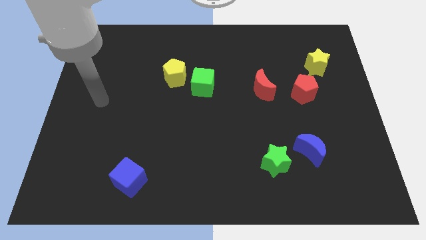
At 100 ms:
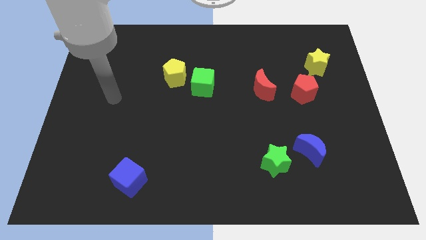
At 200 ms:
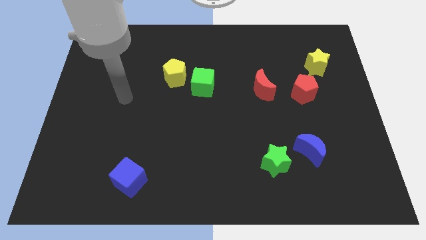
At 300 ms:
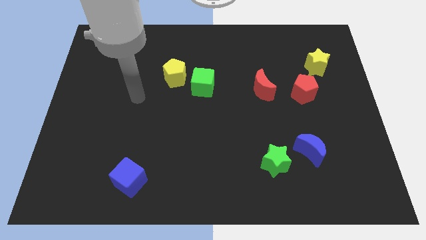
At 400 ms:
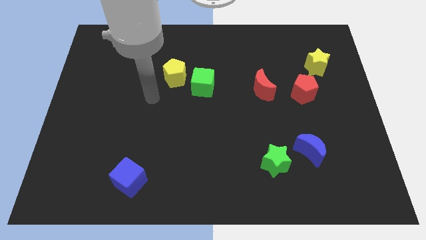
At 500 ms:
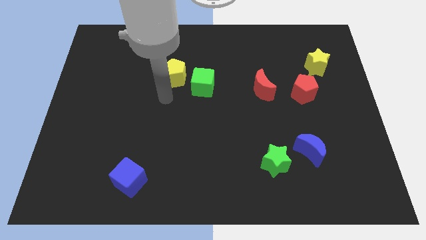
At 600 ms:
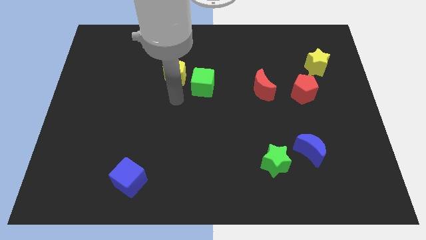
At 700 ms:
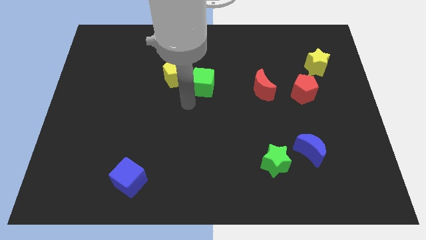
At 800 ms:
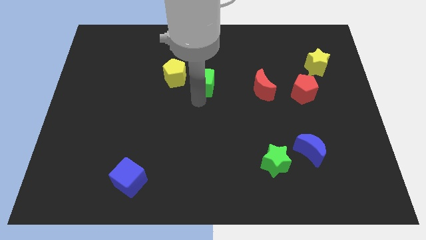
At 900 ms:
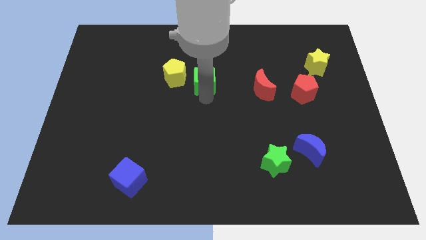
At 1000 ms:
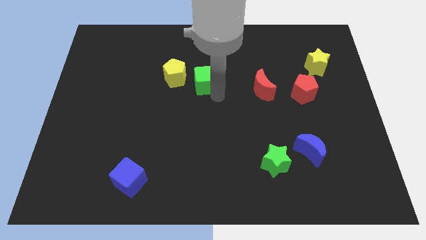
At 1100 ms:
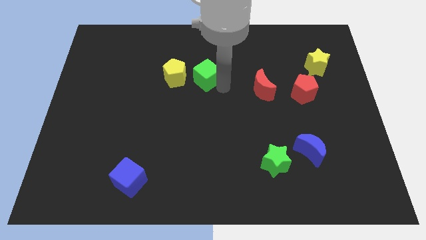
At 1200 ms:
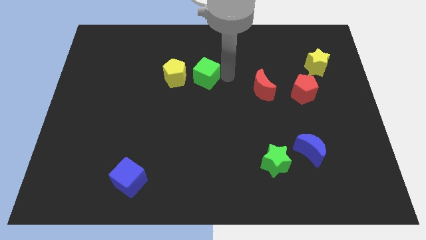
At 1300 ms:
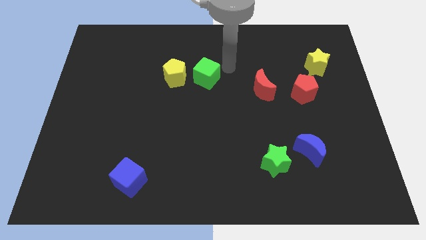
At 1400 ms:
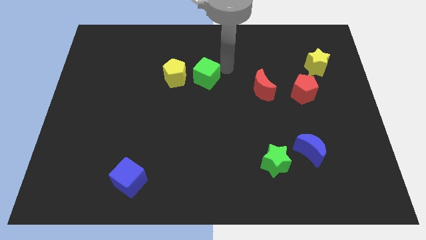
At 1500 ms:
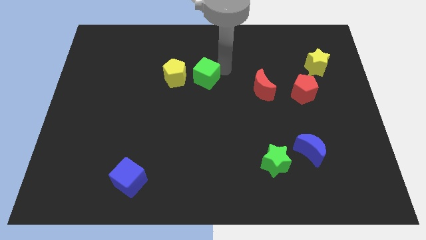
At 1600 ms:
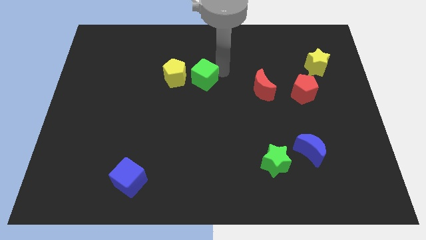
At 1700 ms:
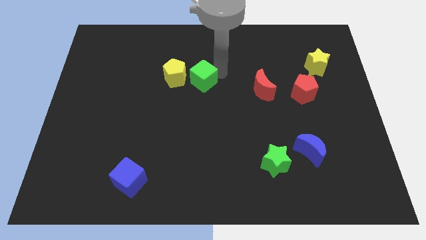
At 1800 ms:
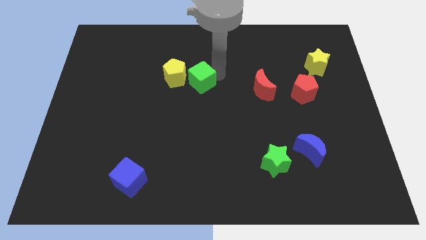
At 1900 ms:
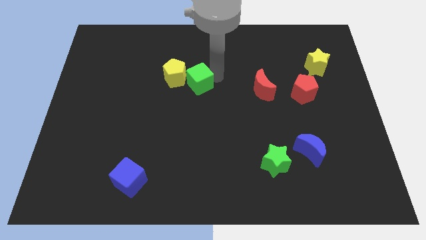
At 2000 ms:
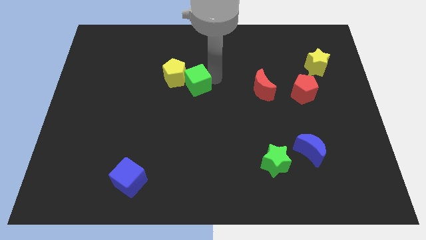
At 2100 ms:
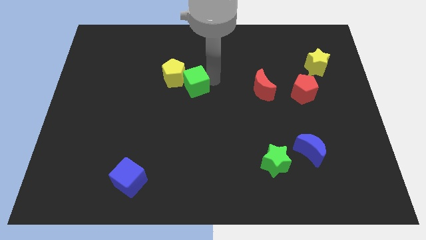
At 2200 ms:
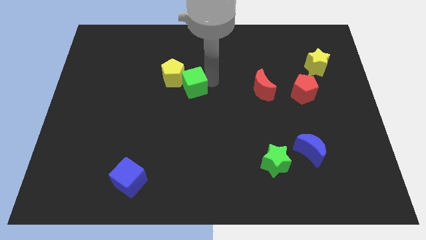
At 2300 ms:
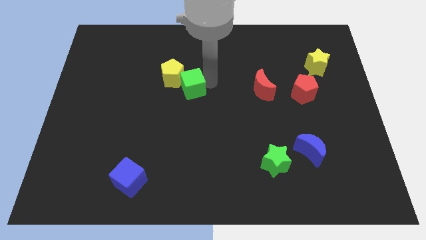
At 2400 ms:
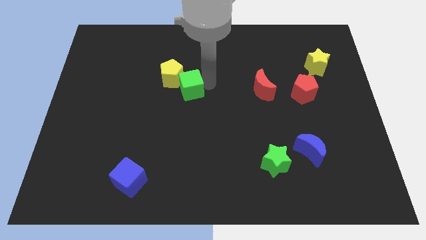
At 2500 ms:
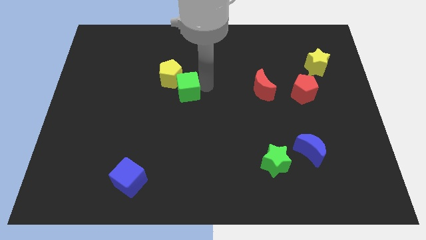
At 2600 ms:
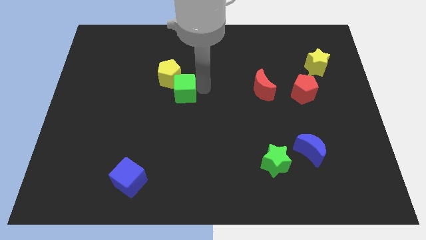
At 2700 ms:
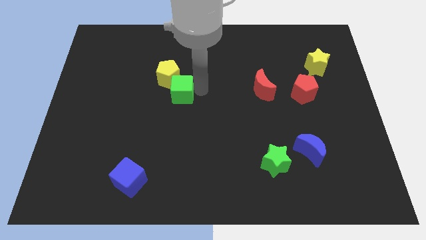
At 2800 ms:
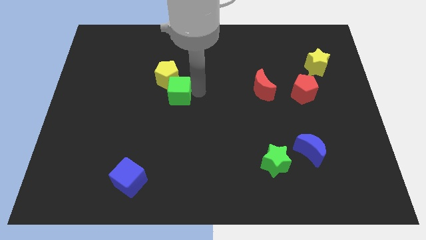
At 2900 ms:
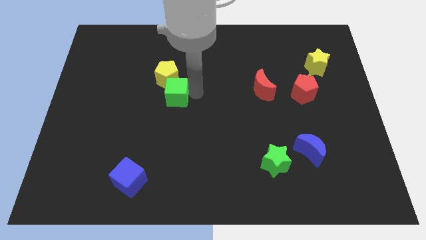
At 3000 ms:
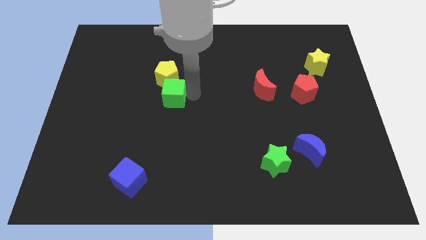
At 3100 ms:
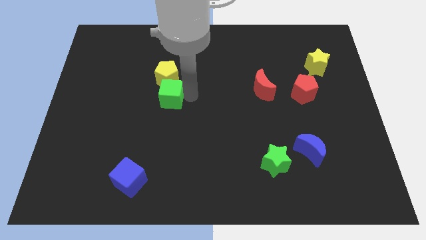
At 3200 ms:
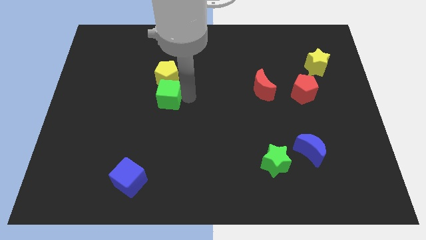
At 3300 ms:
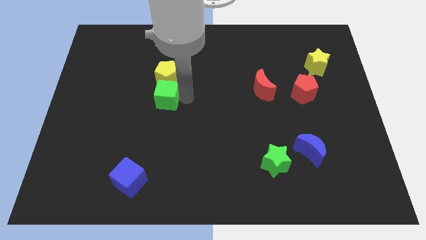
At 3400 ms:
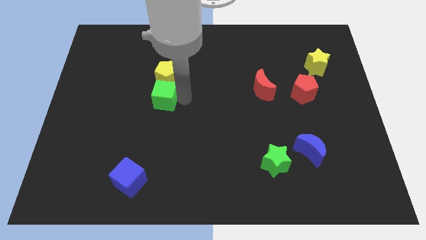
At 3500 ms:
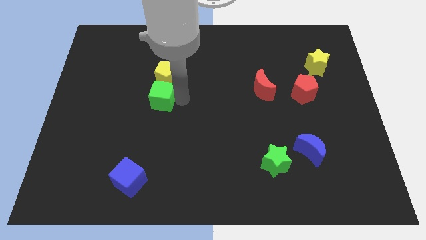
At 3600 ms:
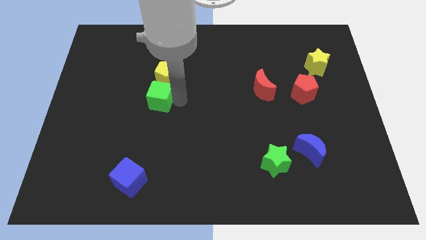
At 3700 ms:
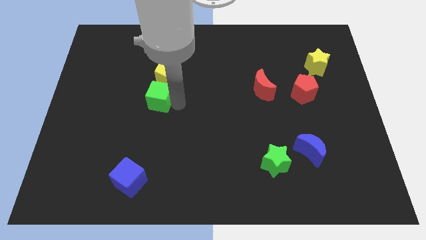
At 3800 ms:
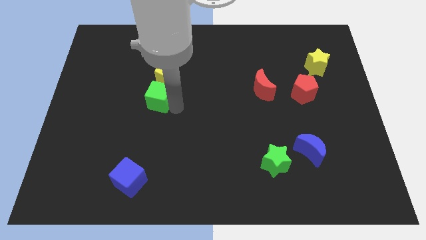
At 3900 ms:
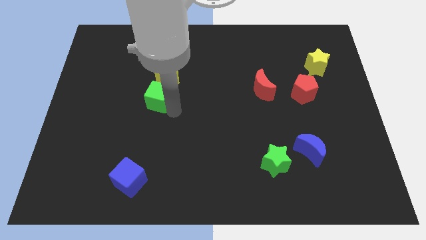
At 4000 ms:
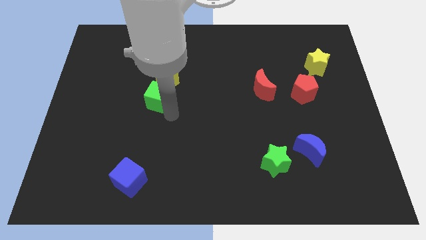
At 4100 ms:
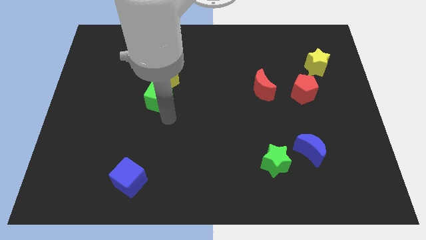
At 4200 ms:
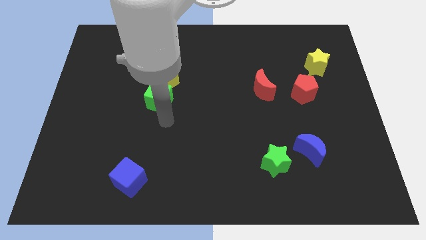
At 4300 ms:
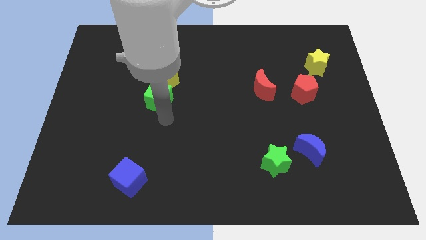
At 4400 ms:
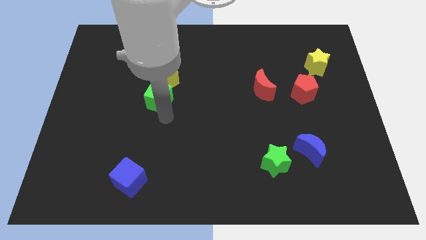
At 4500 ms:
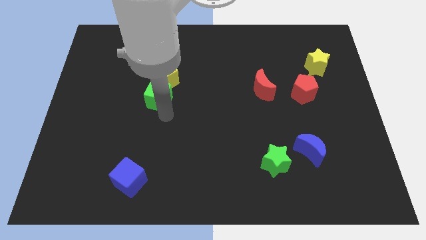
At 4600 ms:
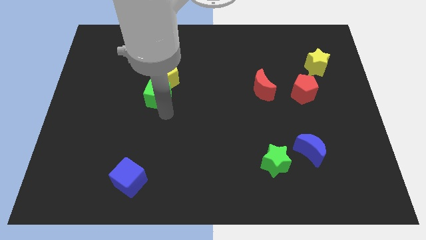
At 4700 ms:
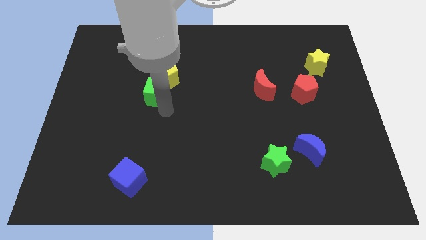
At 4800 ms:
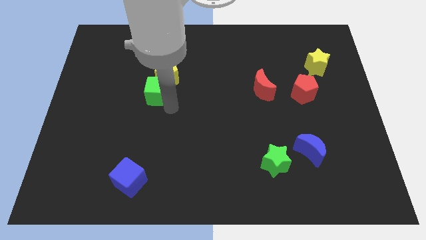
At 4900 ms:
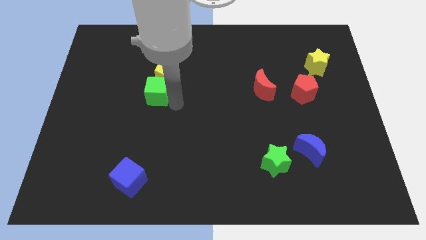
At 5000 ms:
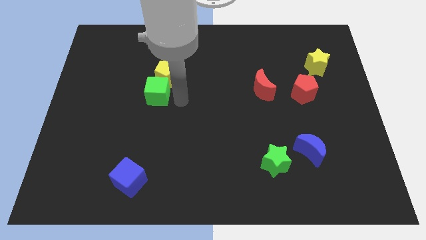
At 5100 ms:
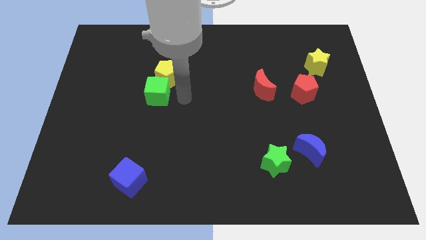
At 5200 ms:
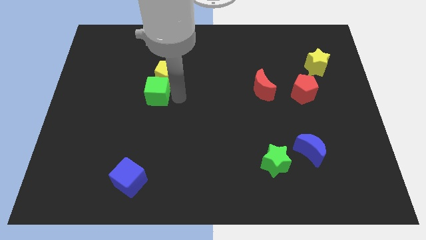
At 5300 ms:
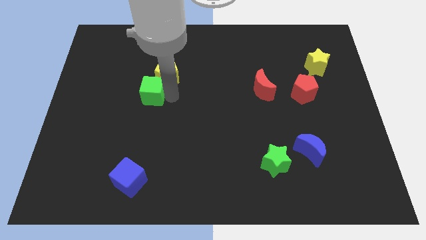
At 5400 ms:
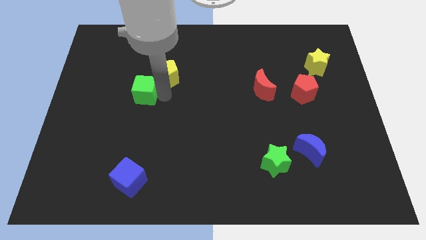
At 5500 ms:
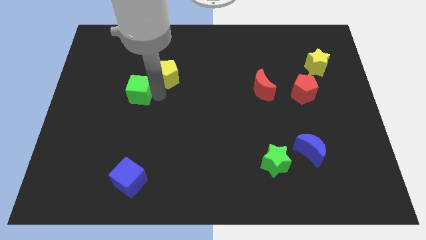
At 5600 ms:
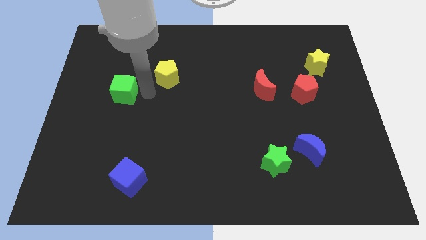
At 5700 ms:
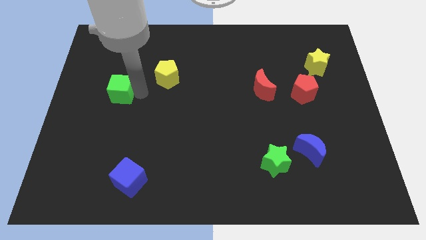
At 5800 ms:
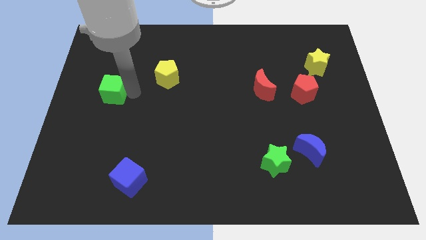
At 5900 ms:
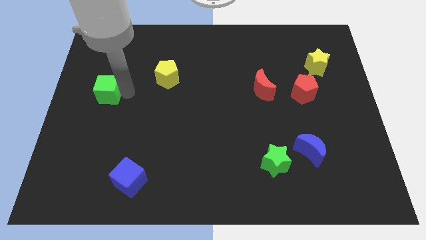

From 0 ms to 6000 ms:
put the green cube to the center left

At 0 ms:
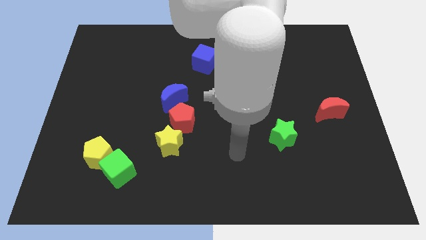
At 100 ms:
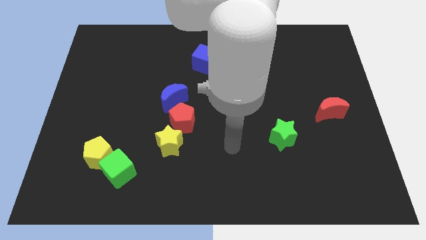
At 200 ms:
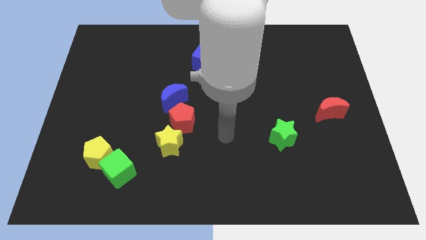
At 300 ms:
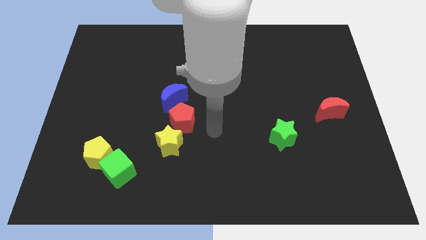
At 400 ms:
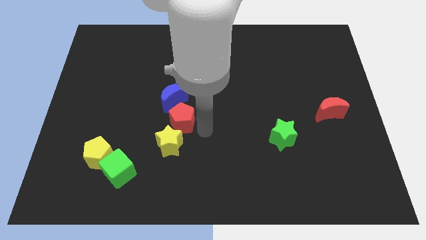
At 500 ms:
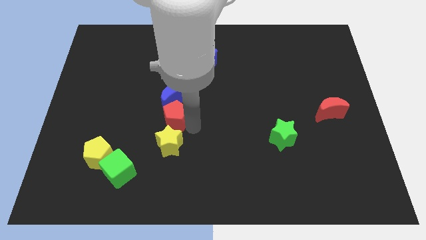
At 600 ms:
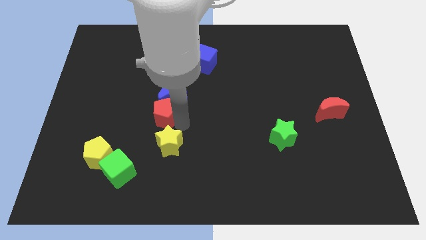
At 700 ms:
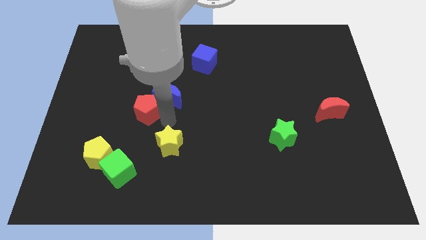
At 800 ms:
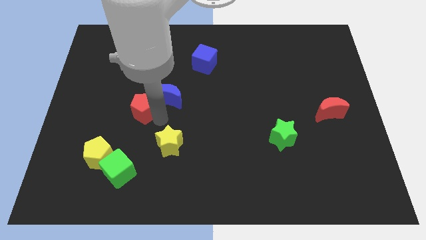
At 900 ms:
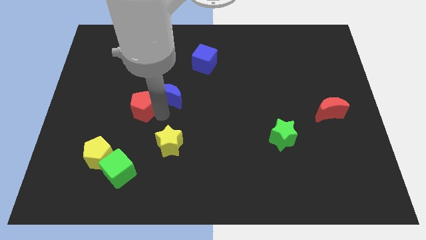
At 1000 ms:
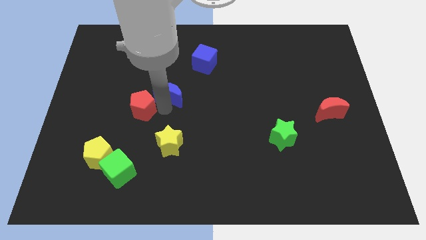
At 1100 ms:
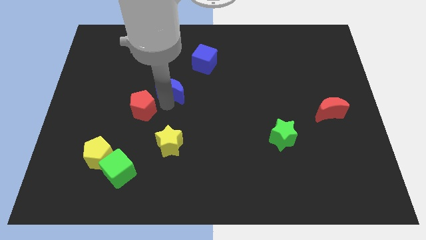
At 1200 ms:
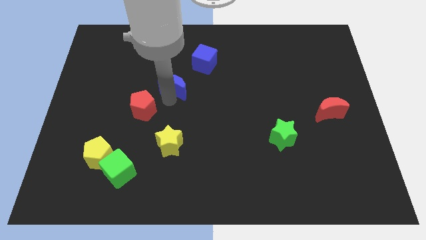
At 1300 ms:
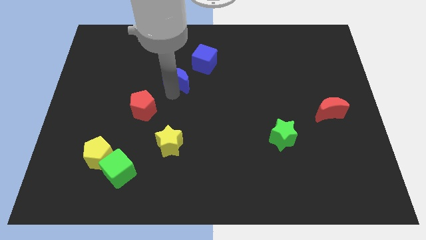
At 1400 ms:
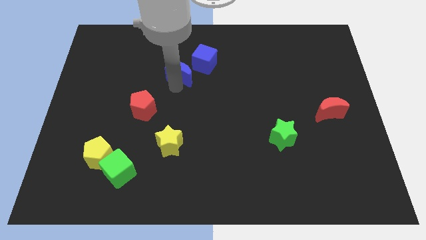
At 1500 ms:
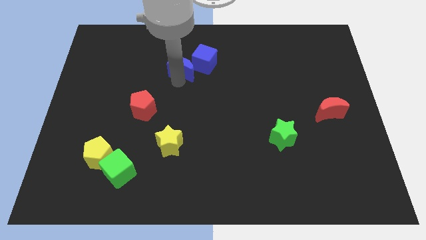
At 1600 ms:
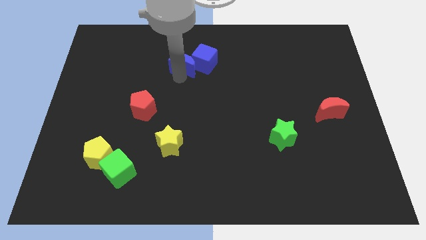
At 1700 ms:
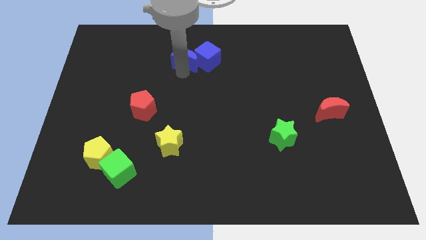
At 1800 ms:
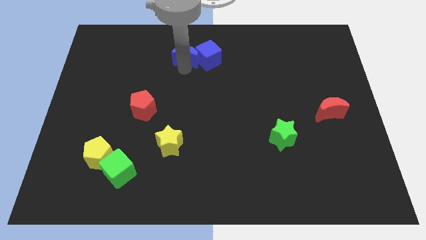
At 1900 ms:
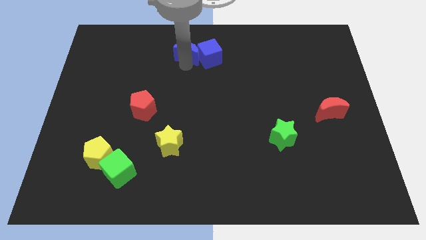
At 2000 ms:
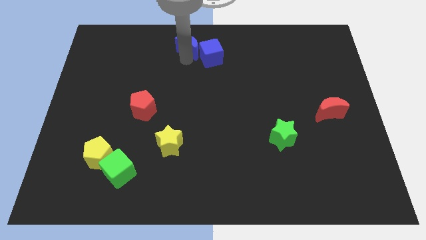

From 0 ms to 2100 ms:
push the blue moon to the top side

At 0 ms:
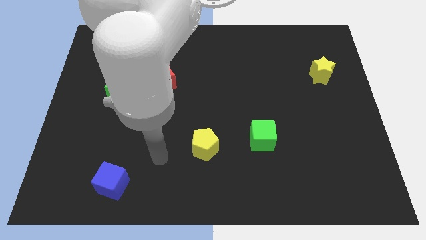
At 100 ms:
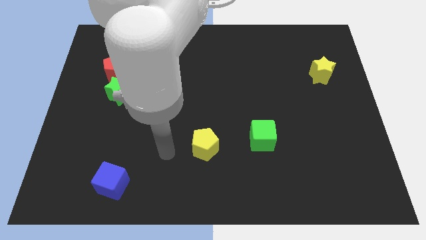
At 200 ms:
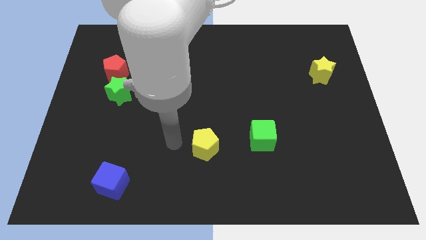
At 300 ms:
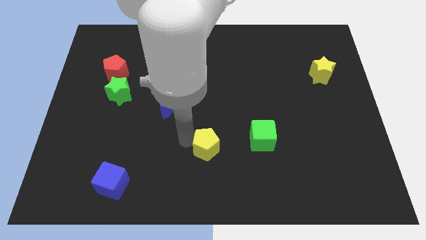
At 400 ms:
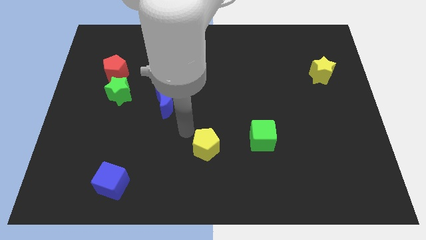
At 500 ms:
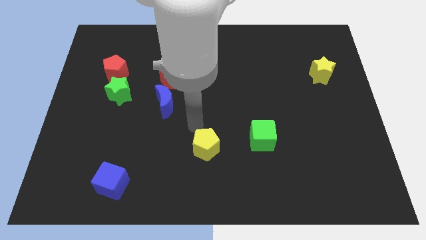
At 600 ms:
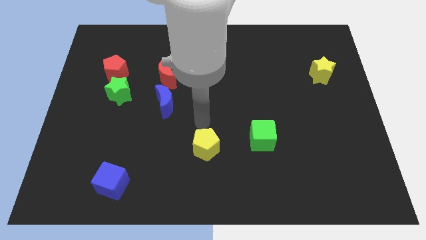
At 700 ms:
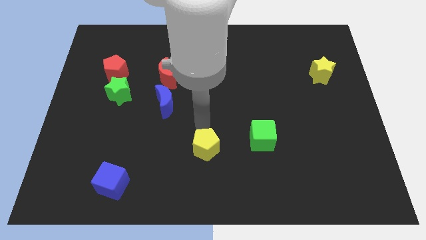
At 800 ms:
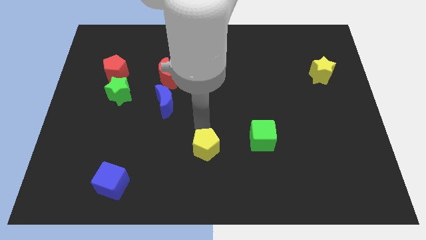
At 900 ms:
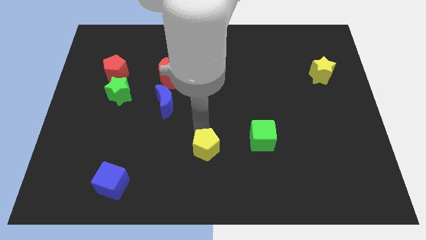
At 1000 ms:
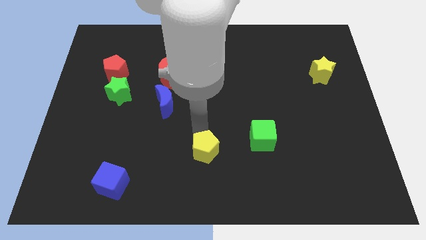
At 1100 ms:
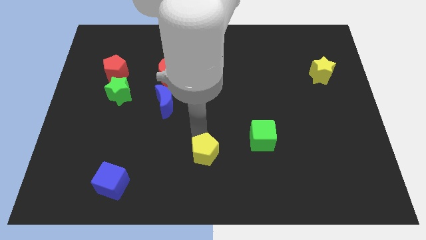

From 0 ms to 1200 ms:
slide the yellow pentagon to the bottom side
